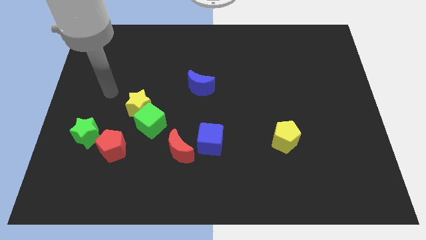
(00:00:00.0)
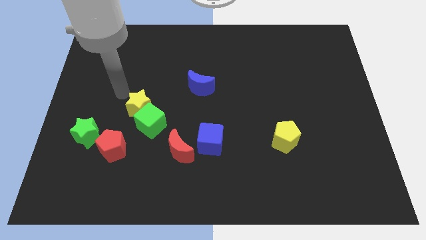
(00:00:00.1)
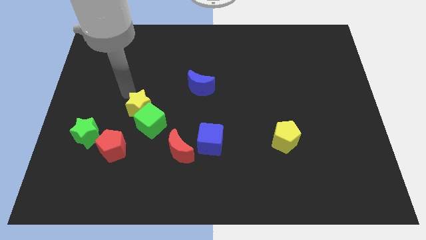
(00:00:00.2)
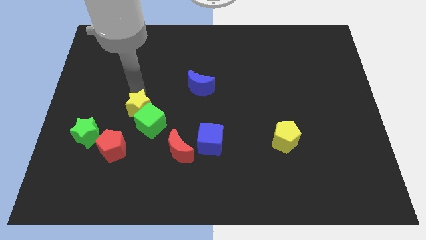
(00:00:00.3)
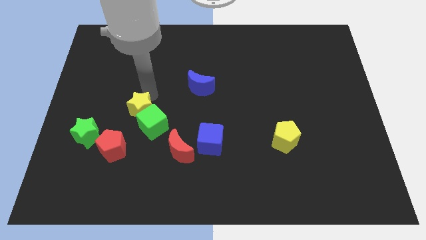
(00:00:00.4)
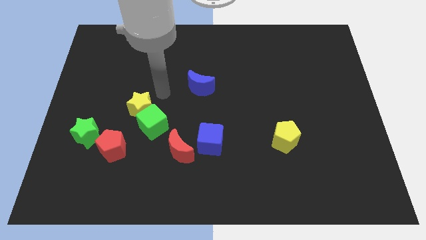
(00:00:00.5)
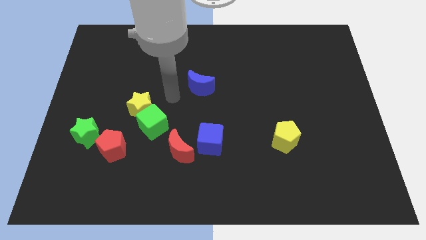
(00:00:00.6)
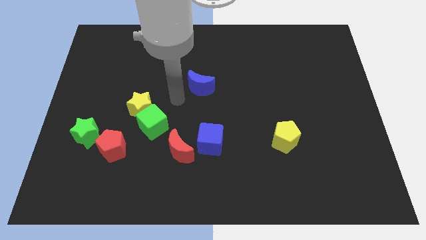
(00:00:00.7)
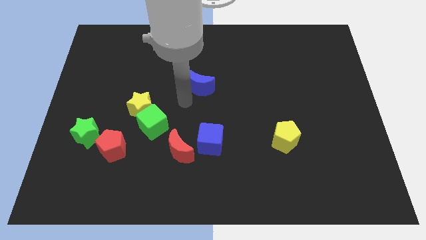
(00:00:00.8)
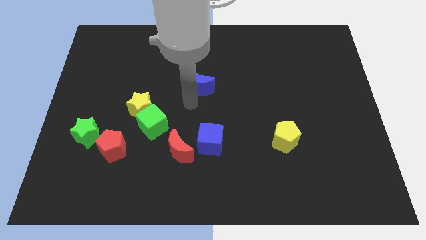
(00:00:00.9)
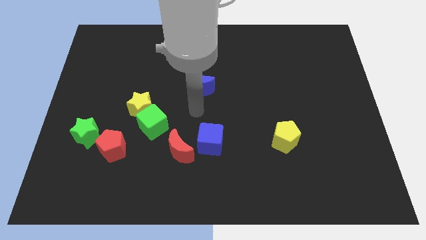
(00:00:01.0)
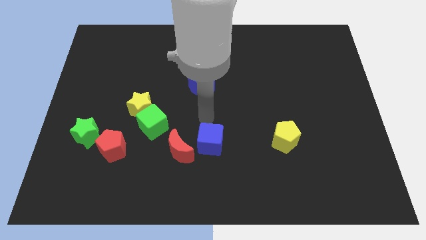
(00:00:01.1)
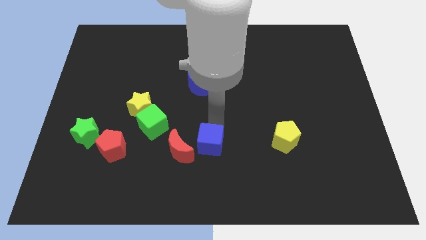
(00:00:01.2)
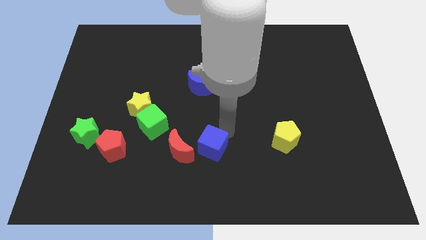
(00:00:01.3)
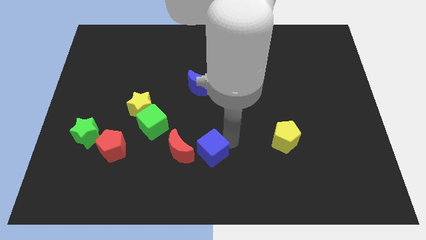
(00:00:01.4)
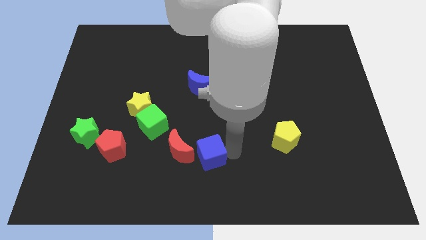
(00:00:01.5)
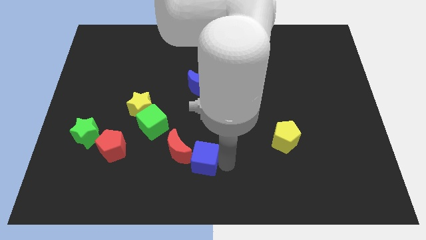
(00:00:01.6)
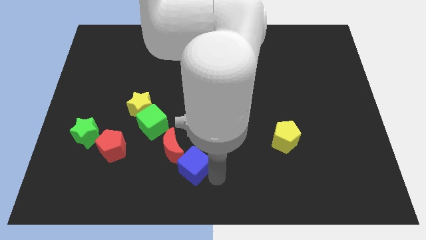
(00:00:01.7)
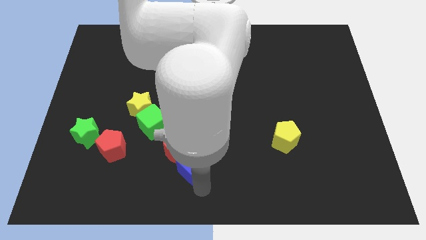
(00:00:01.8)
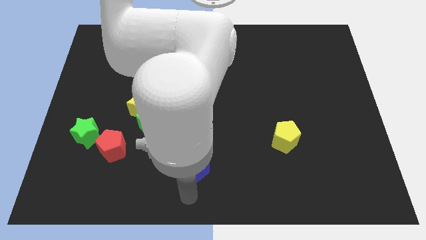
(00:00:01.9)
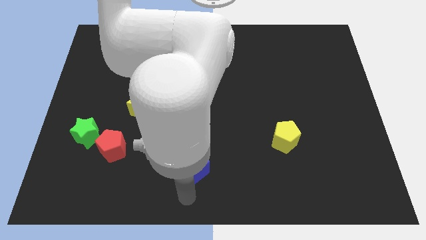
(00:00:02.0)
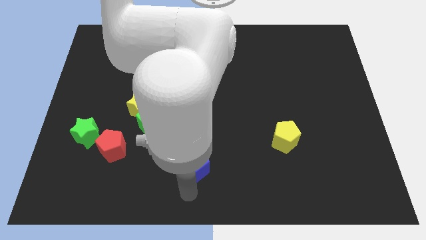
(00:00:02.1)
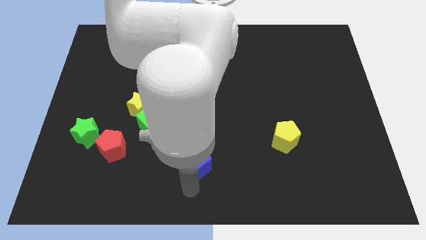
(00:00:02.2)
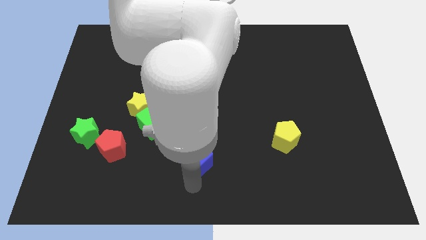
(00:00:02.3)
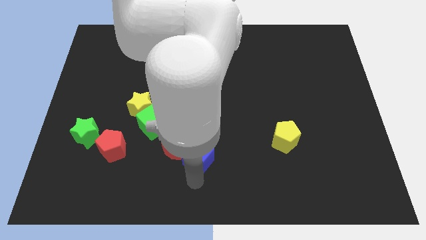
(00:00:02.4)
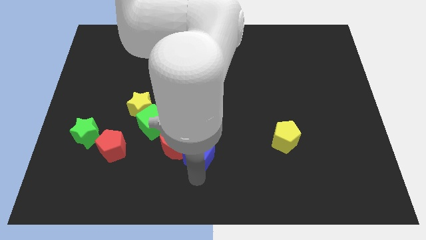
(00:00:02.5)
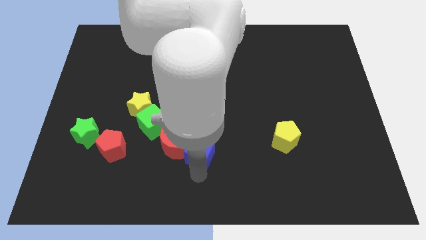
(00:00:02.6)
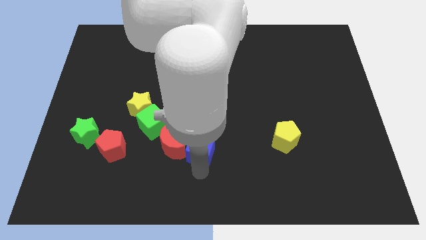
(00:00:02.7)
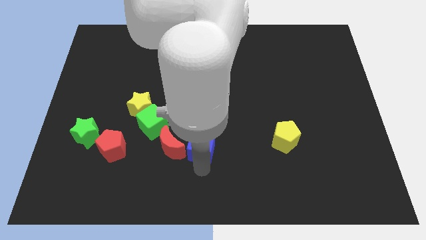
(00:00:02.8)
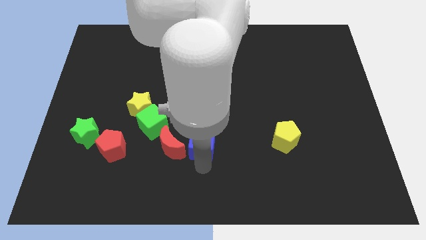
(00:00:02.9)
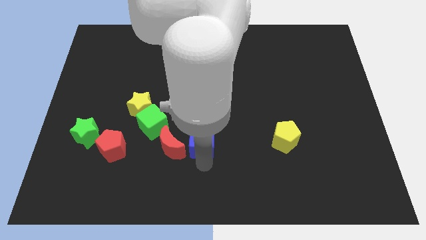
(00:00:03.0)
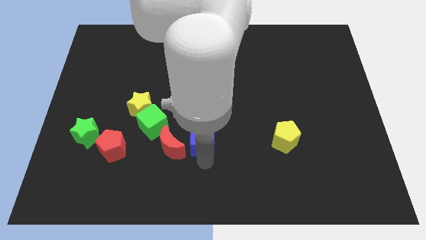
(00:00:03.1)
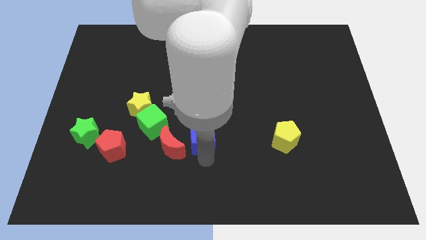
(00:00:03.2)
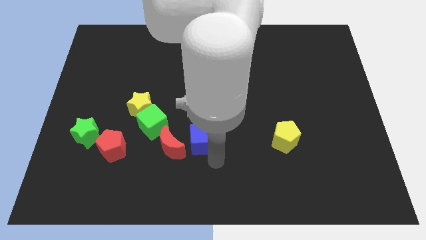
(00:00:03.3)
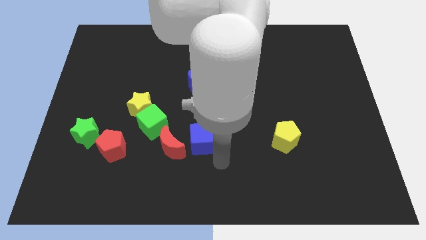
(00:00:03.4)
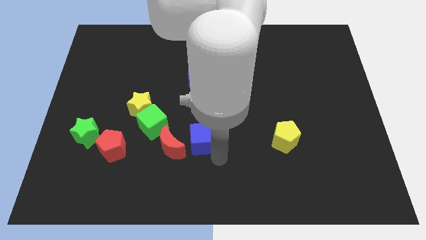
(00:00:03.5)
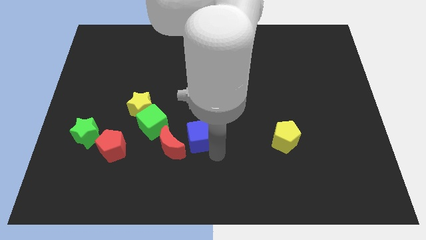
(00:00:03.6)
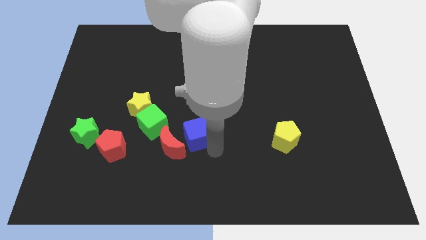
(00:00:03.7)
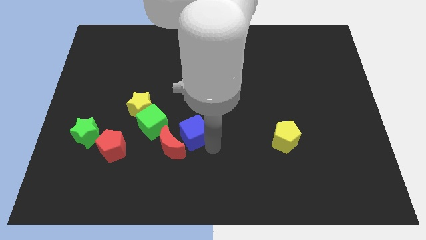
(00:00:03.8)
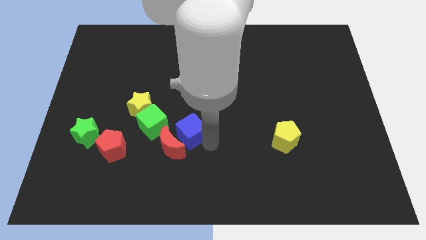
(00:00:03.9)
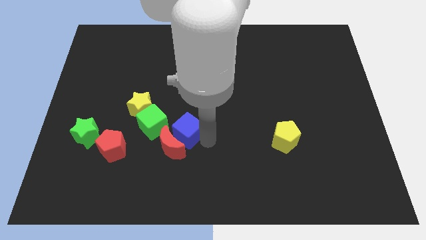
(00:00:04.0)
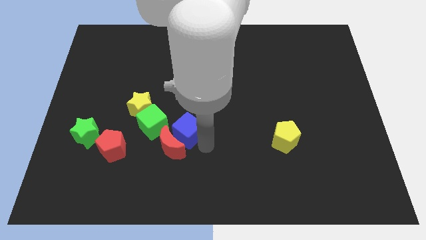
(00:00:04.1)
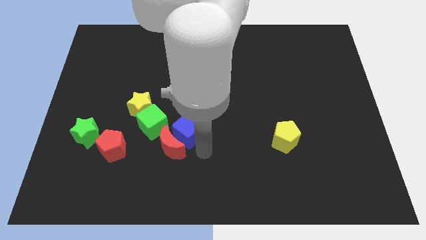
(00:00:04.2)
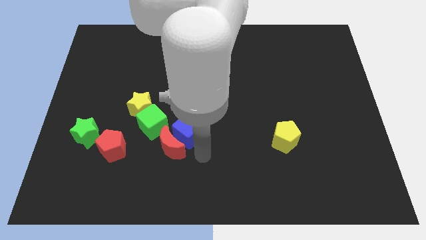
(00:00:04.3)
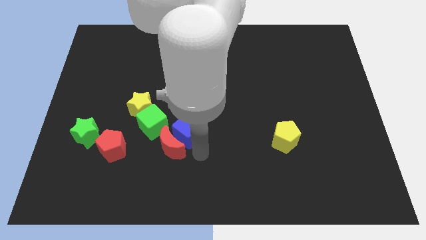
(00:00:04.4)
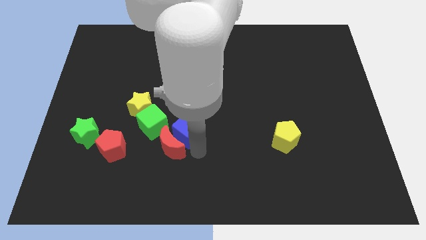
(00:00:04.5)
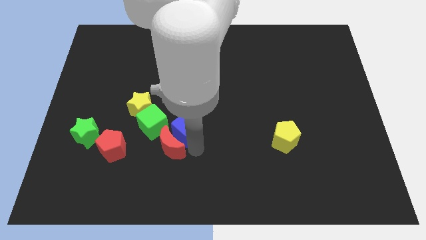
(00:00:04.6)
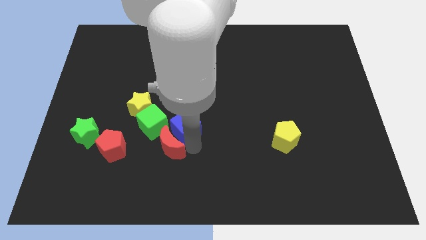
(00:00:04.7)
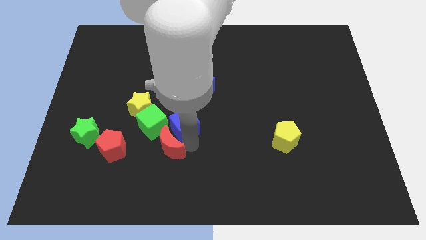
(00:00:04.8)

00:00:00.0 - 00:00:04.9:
slightly move the blue cube up and then left

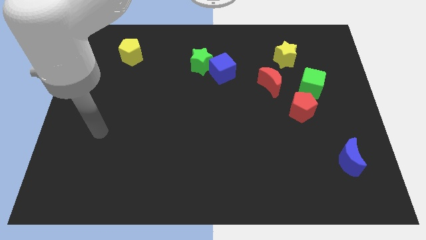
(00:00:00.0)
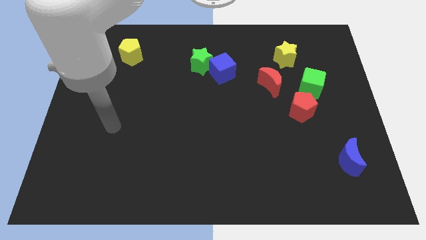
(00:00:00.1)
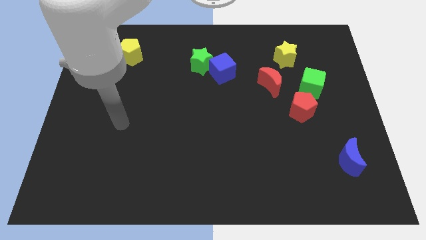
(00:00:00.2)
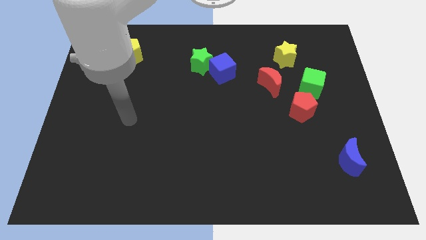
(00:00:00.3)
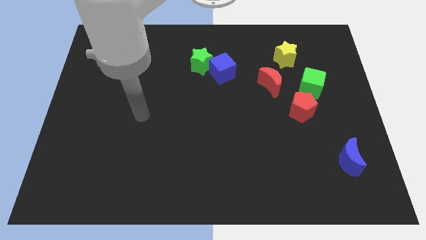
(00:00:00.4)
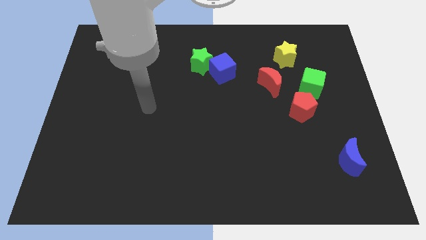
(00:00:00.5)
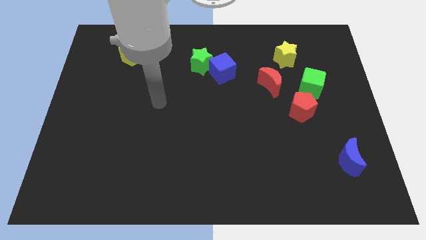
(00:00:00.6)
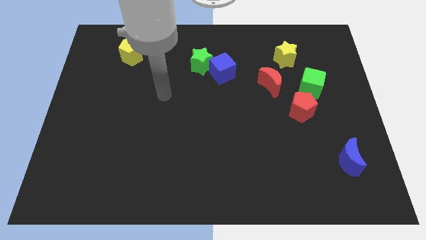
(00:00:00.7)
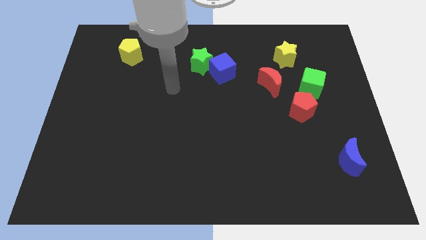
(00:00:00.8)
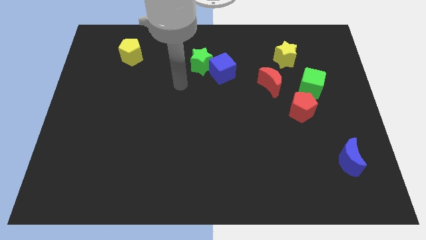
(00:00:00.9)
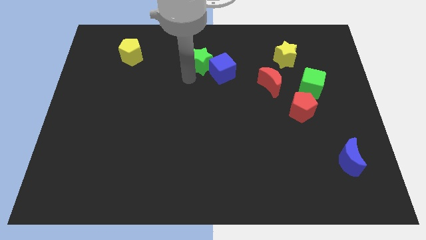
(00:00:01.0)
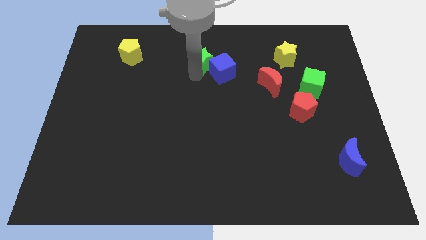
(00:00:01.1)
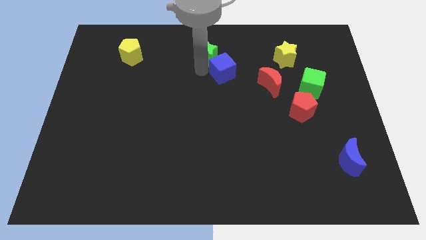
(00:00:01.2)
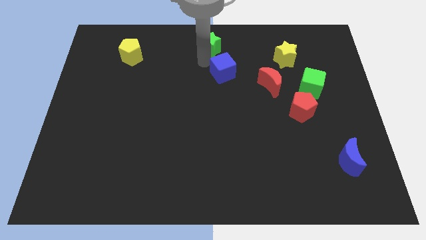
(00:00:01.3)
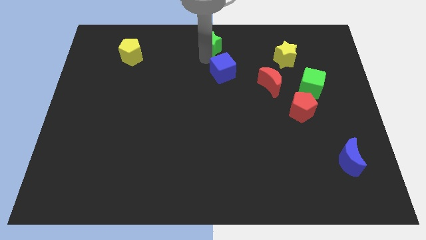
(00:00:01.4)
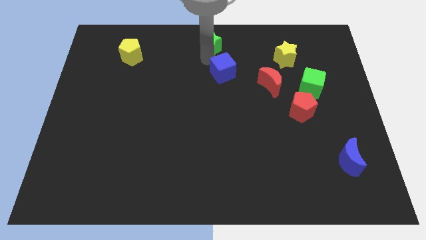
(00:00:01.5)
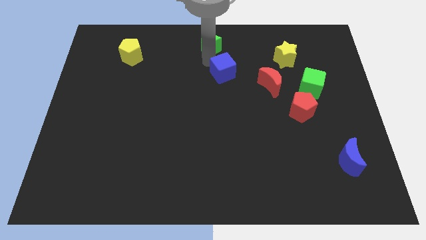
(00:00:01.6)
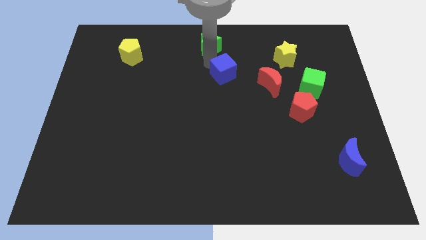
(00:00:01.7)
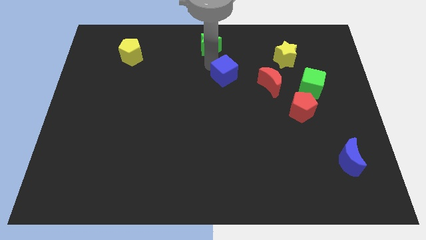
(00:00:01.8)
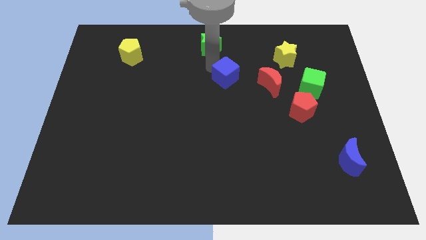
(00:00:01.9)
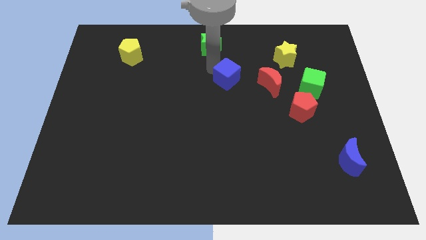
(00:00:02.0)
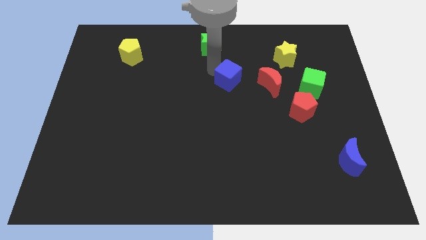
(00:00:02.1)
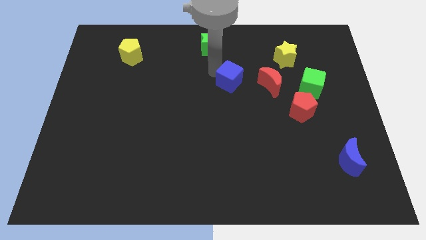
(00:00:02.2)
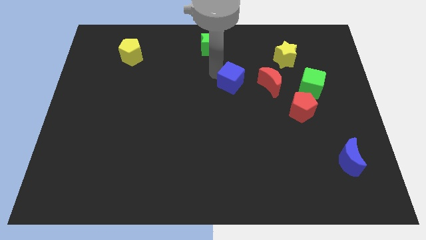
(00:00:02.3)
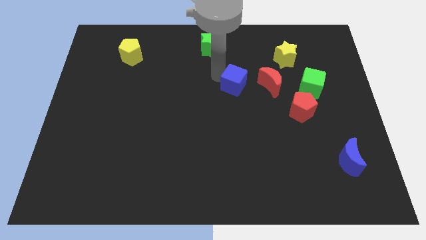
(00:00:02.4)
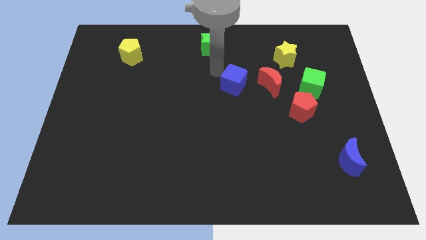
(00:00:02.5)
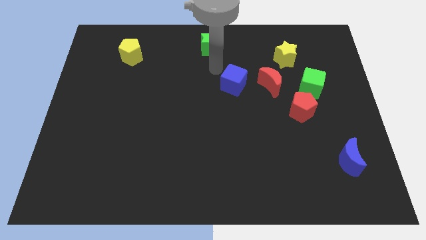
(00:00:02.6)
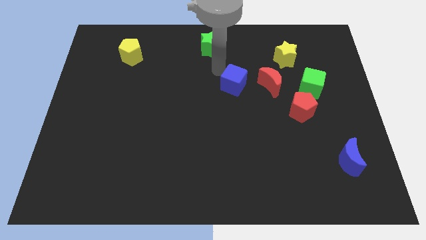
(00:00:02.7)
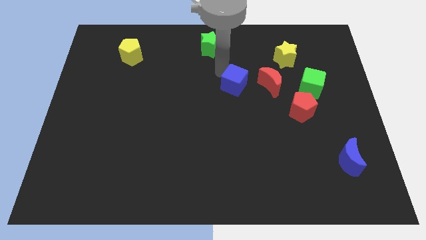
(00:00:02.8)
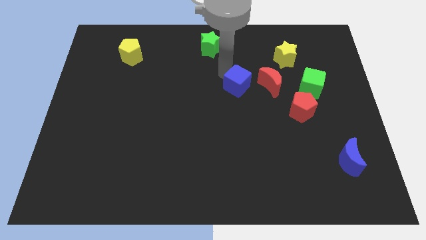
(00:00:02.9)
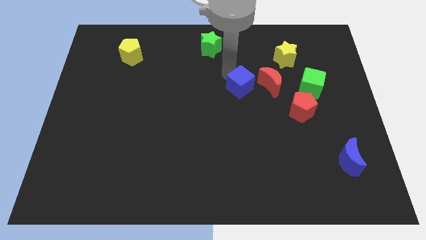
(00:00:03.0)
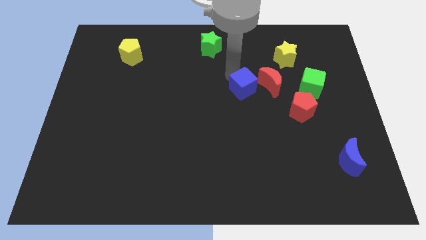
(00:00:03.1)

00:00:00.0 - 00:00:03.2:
push the blue cube a little diagonally down and to the right
